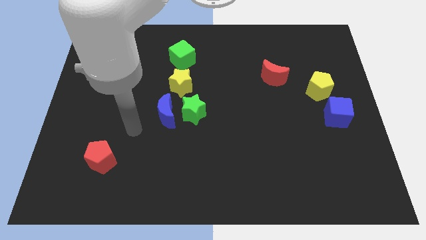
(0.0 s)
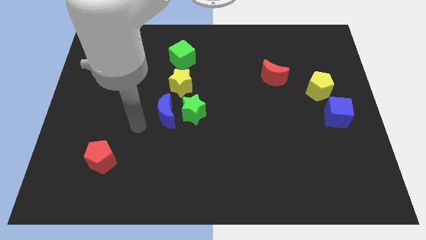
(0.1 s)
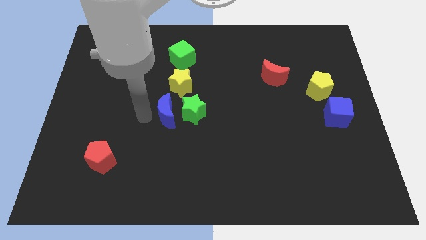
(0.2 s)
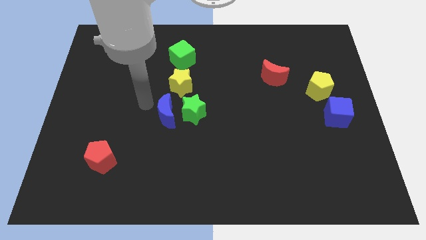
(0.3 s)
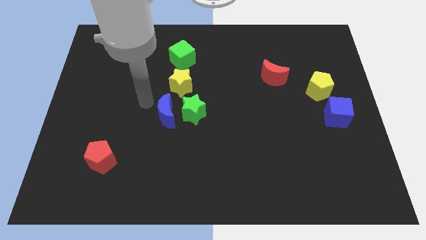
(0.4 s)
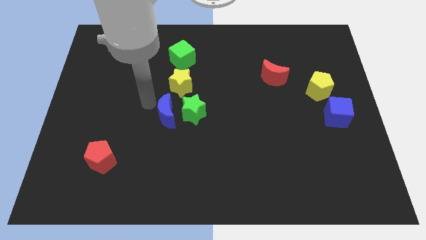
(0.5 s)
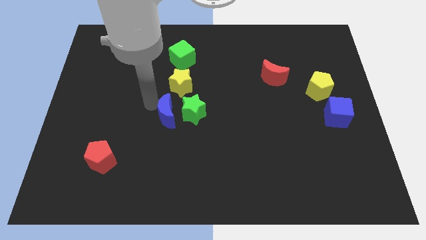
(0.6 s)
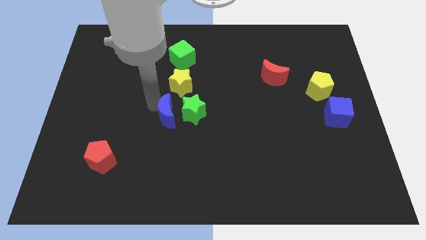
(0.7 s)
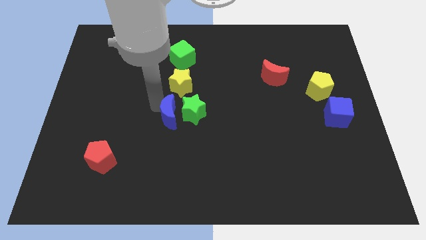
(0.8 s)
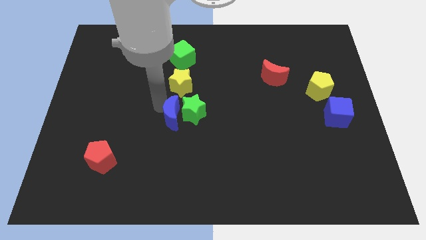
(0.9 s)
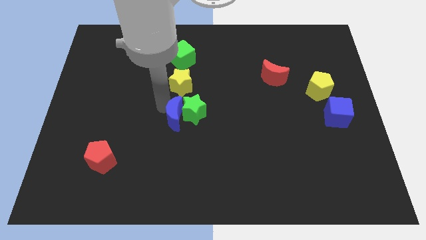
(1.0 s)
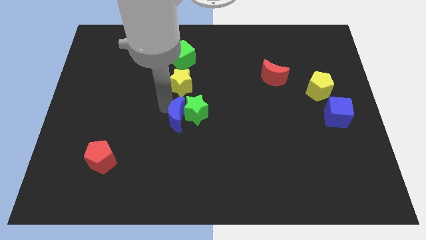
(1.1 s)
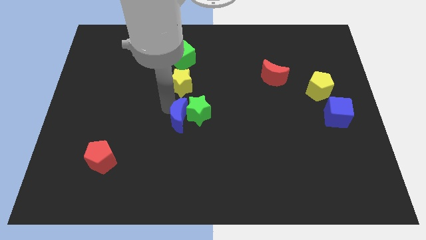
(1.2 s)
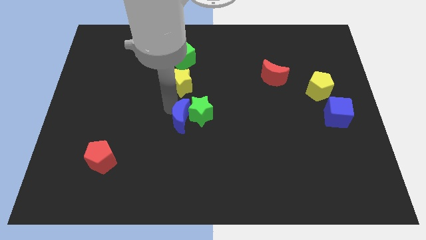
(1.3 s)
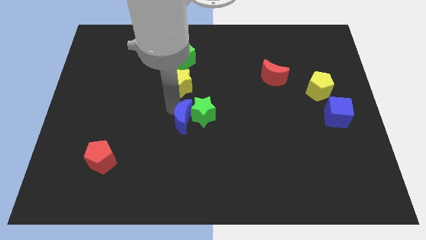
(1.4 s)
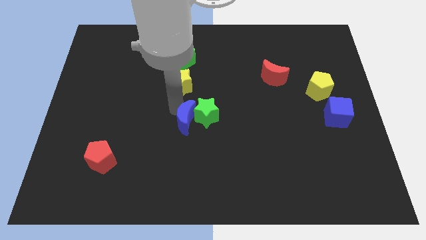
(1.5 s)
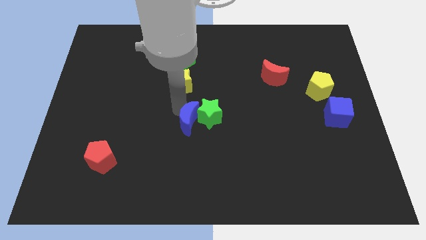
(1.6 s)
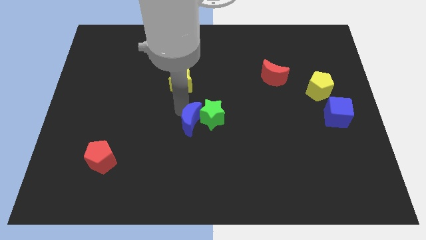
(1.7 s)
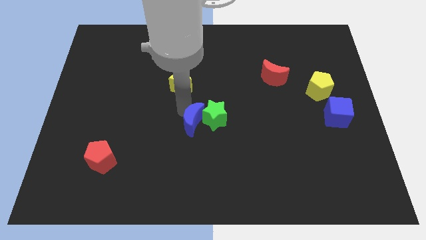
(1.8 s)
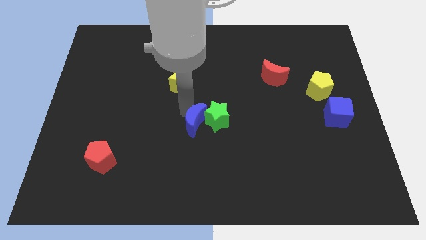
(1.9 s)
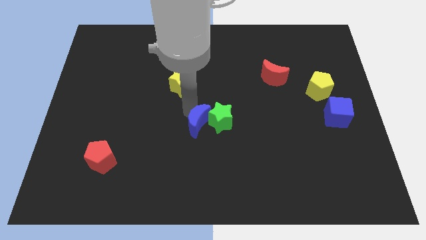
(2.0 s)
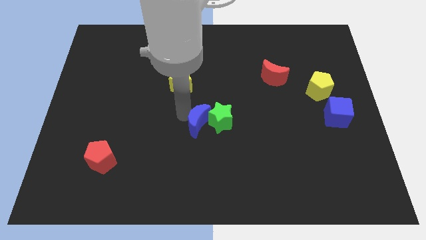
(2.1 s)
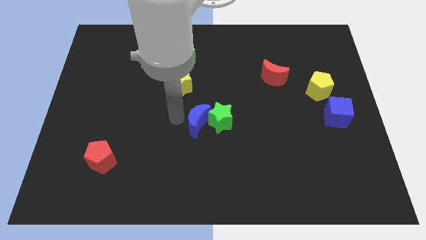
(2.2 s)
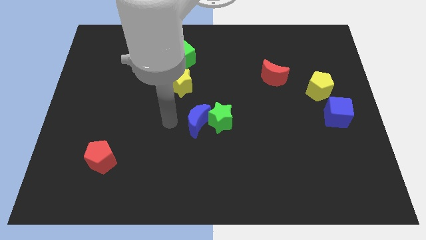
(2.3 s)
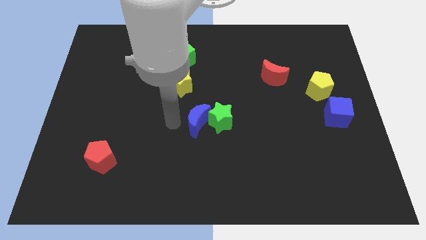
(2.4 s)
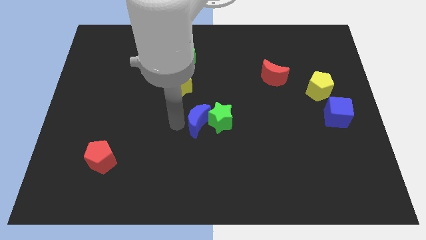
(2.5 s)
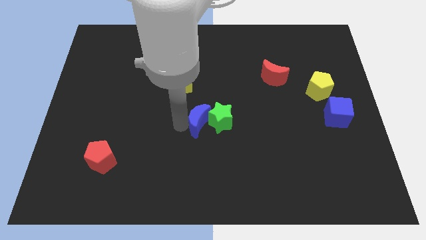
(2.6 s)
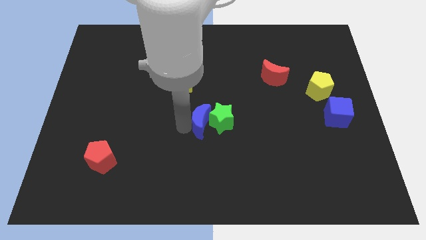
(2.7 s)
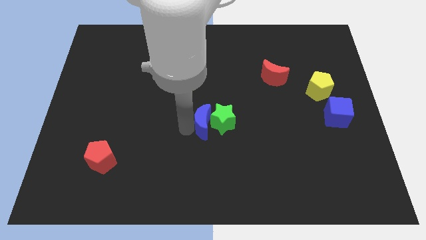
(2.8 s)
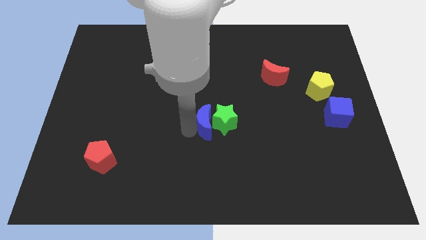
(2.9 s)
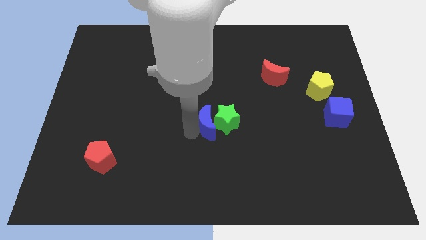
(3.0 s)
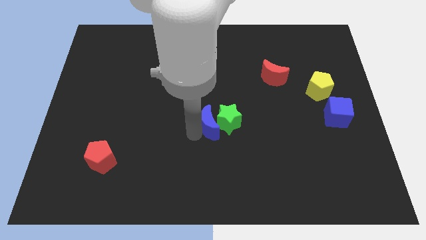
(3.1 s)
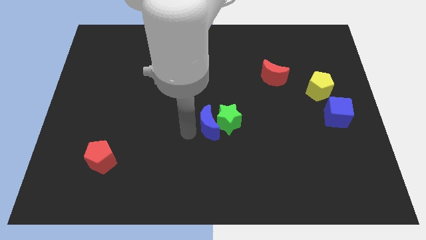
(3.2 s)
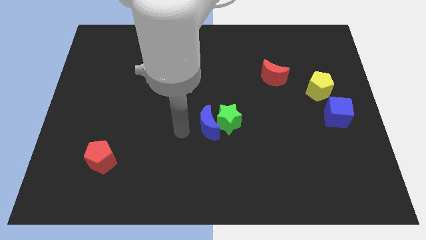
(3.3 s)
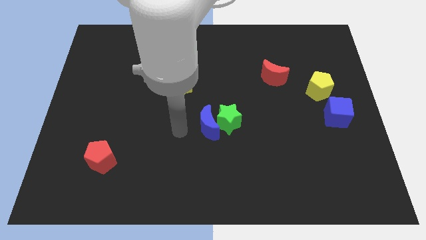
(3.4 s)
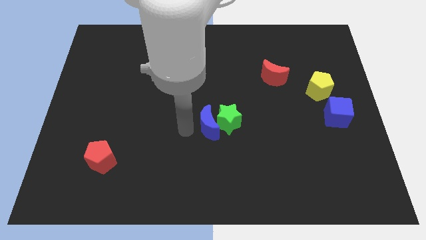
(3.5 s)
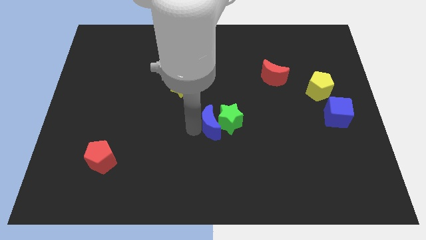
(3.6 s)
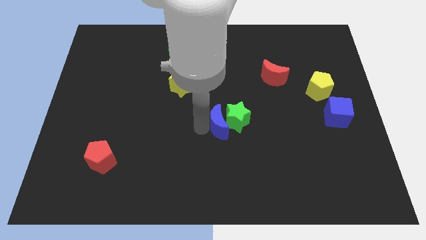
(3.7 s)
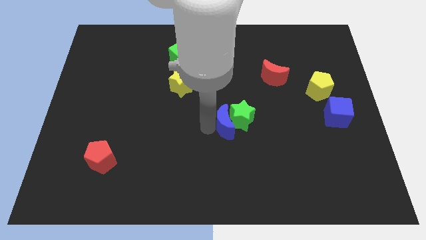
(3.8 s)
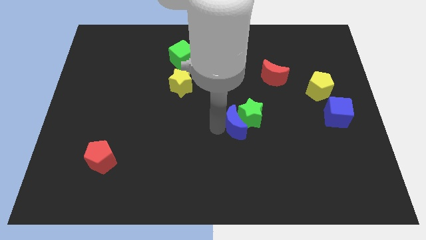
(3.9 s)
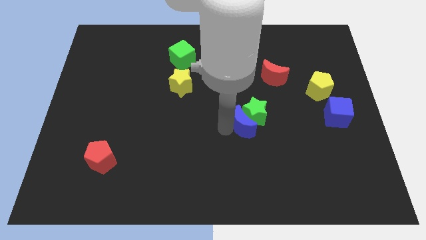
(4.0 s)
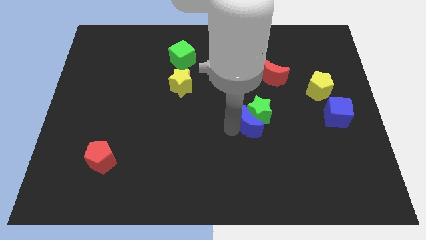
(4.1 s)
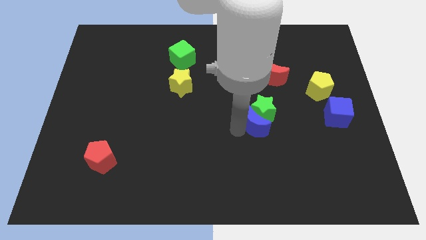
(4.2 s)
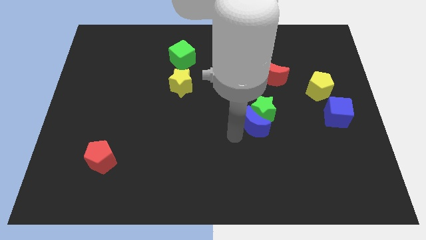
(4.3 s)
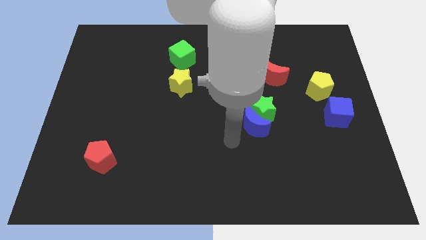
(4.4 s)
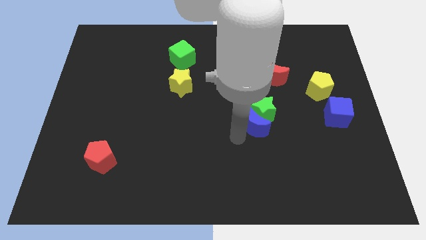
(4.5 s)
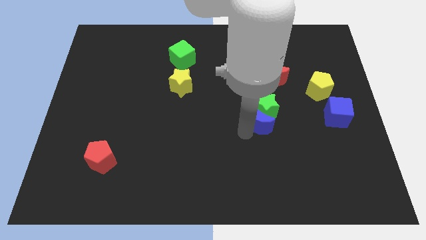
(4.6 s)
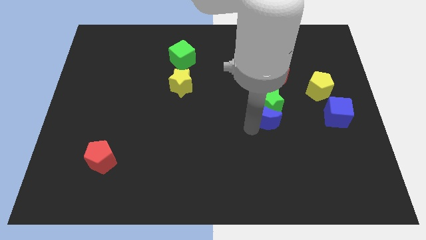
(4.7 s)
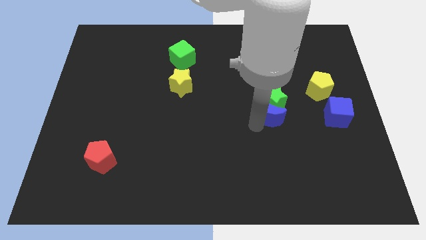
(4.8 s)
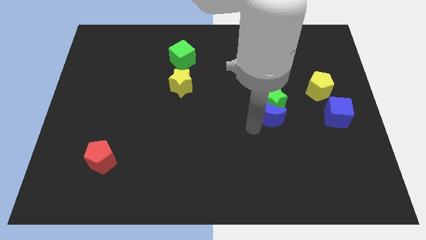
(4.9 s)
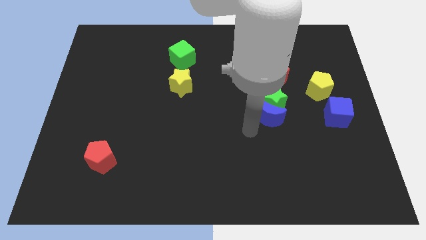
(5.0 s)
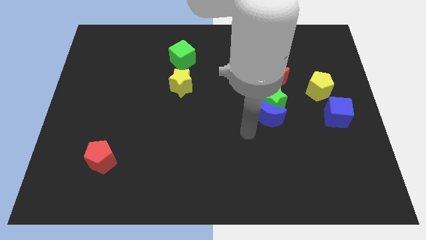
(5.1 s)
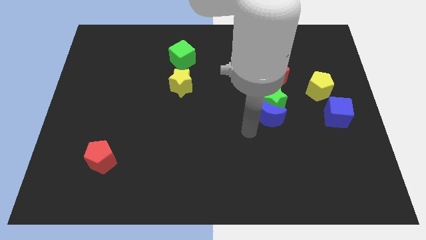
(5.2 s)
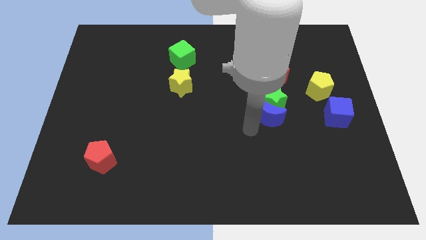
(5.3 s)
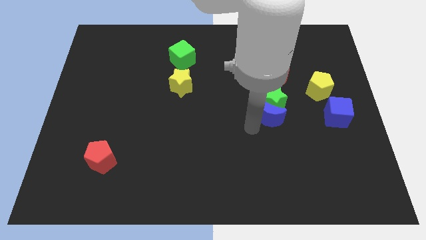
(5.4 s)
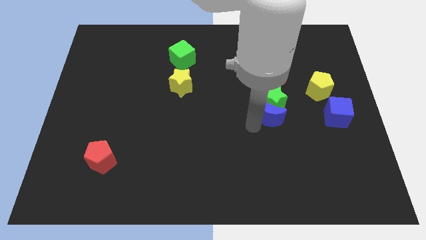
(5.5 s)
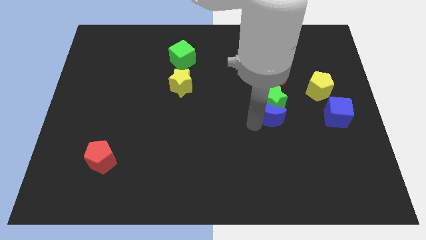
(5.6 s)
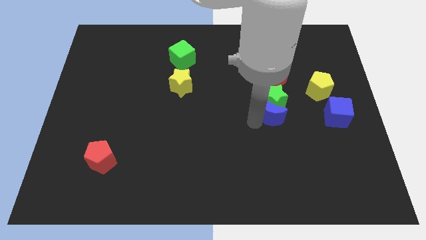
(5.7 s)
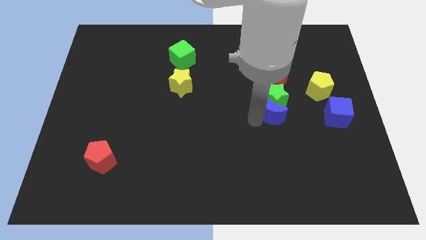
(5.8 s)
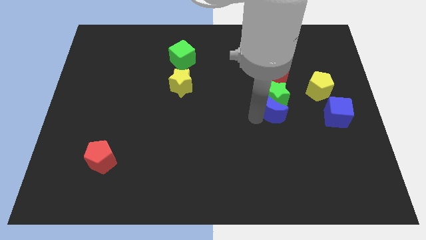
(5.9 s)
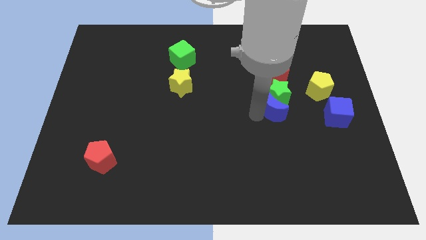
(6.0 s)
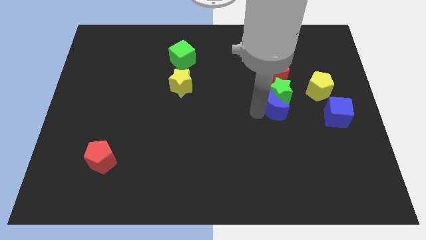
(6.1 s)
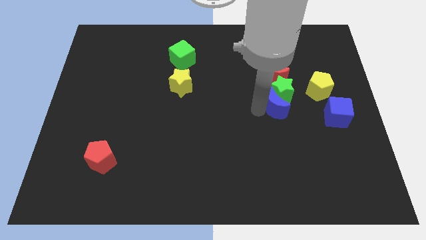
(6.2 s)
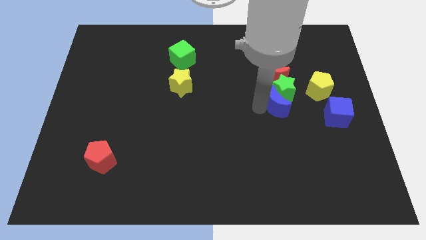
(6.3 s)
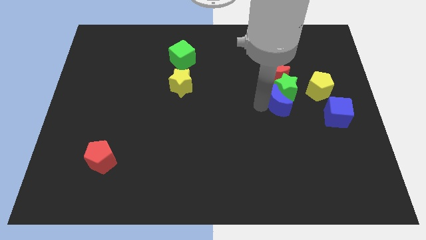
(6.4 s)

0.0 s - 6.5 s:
slide the blue moon to the bottom left of the yellow pentagon
